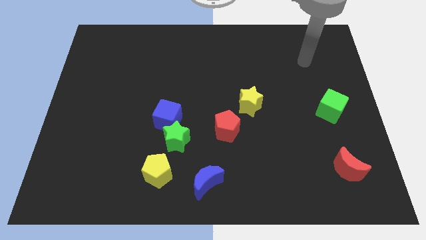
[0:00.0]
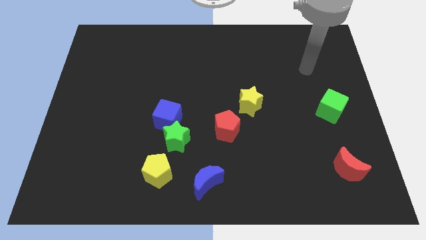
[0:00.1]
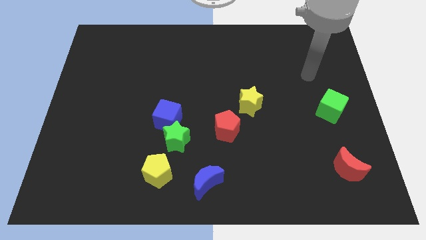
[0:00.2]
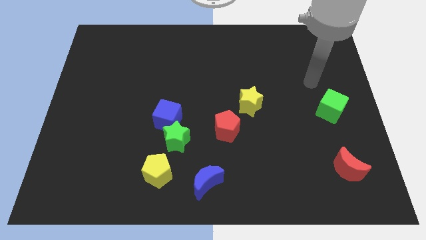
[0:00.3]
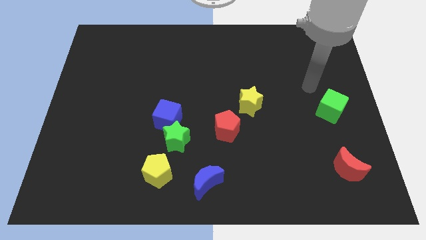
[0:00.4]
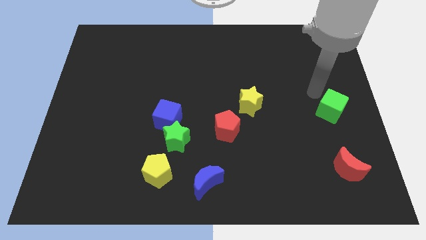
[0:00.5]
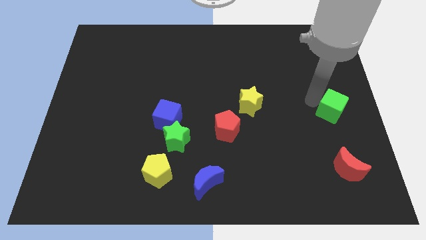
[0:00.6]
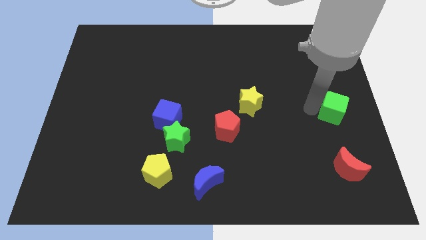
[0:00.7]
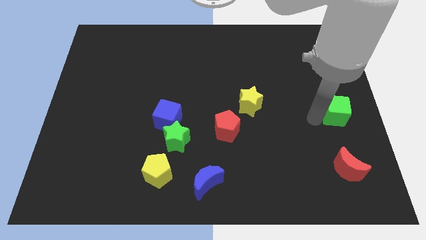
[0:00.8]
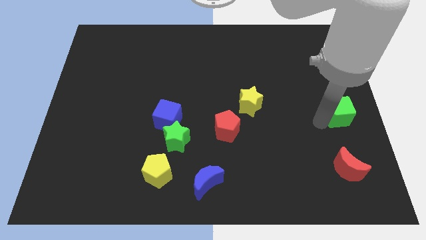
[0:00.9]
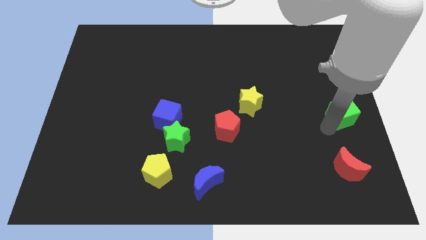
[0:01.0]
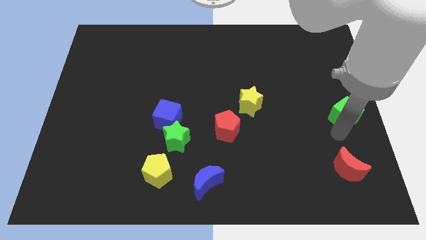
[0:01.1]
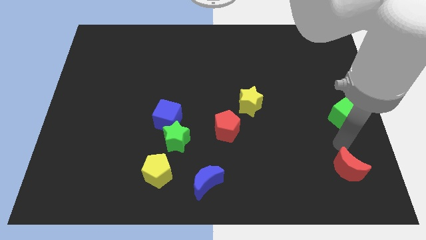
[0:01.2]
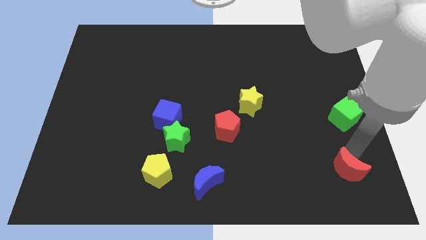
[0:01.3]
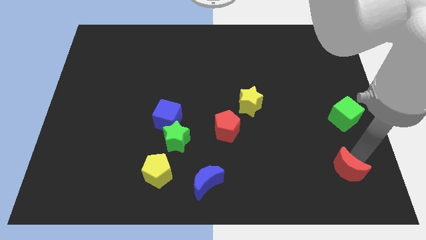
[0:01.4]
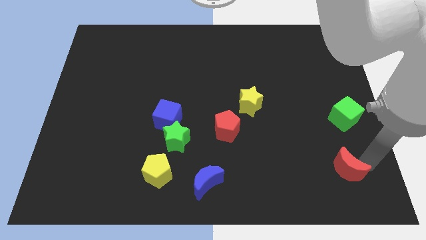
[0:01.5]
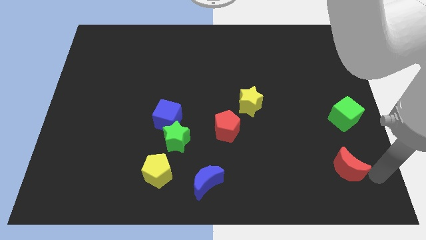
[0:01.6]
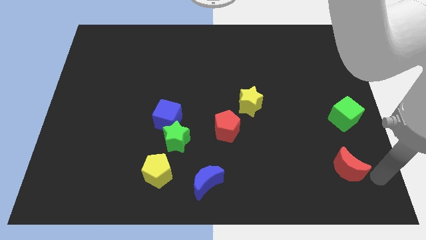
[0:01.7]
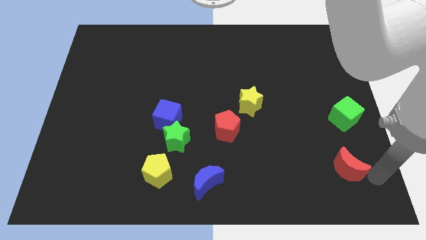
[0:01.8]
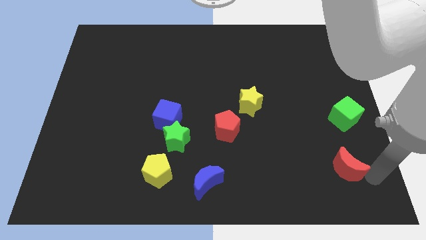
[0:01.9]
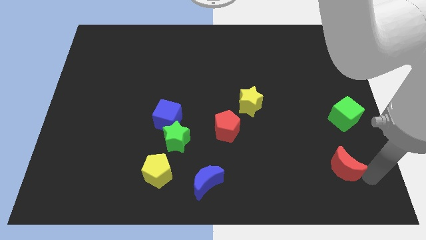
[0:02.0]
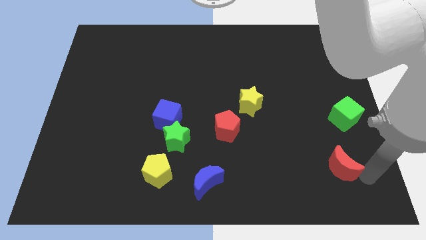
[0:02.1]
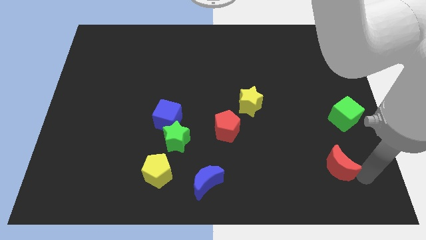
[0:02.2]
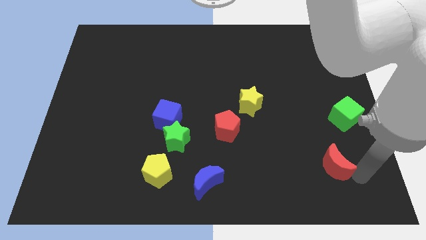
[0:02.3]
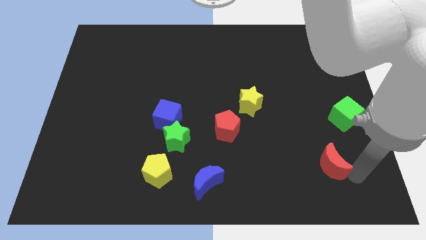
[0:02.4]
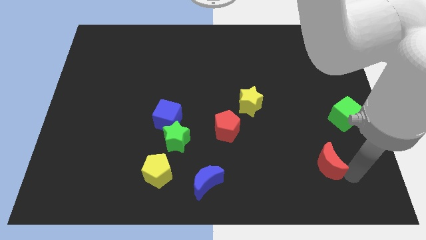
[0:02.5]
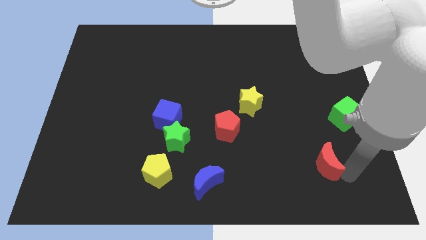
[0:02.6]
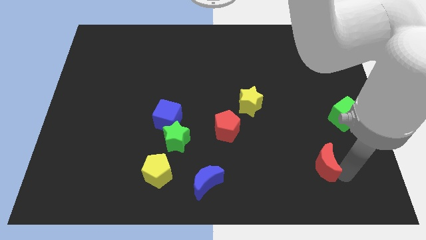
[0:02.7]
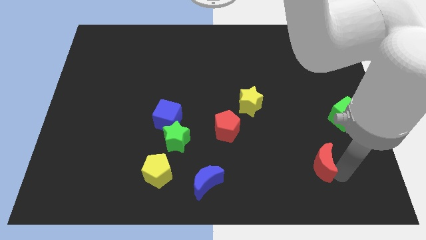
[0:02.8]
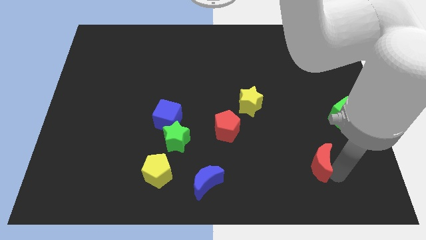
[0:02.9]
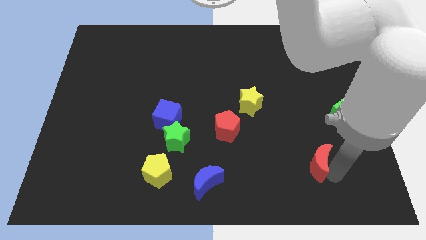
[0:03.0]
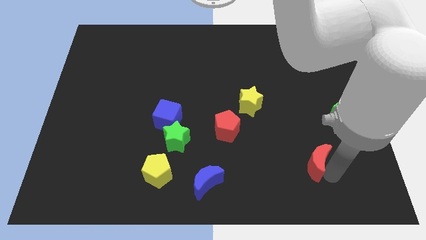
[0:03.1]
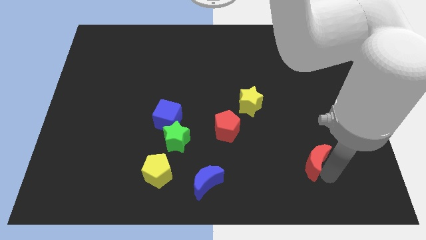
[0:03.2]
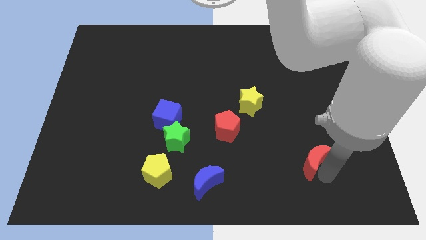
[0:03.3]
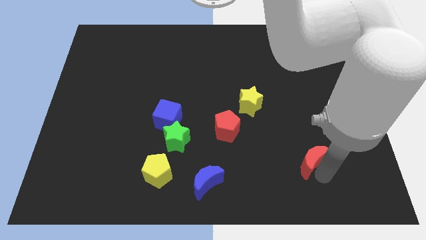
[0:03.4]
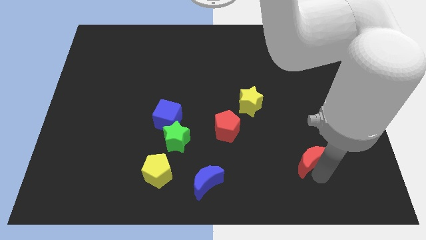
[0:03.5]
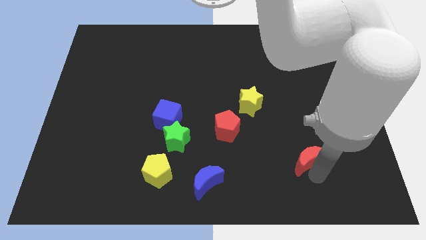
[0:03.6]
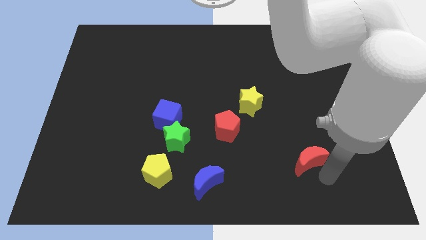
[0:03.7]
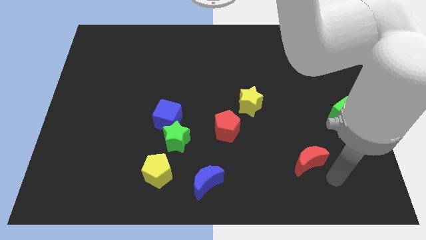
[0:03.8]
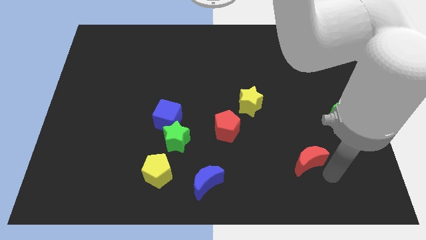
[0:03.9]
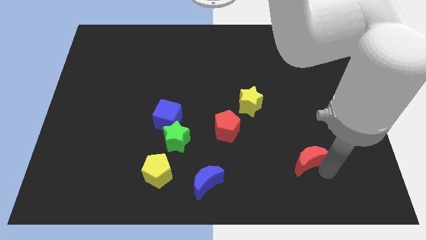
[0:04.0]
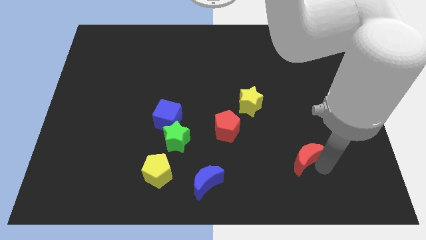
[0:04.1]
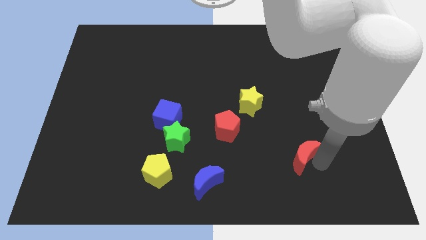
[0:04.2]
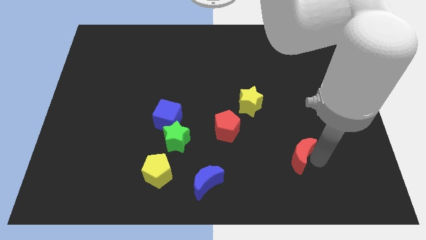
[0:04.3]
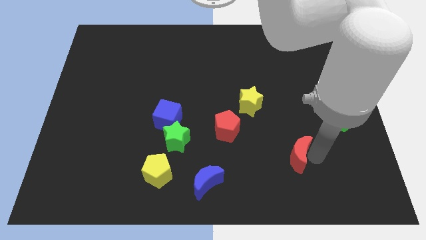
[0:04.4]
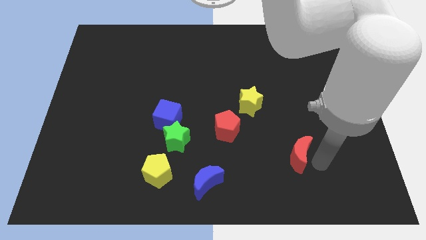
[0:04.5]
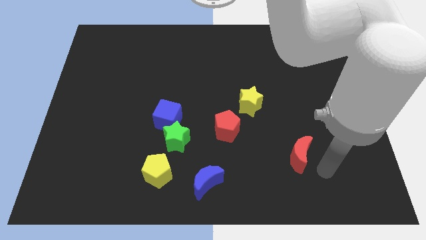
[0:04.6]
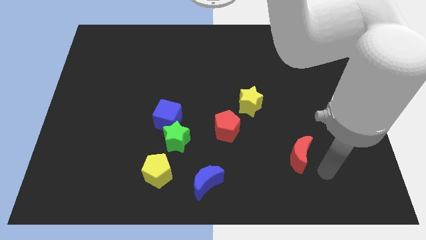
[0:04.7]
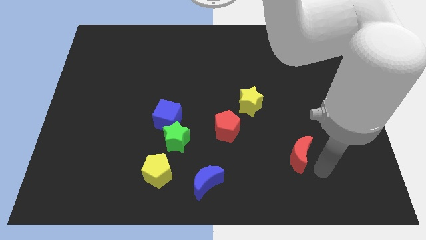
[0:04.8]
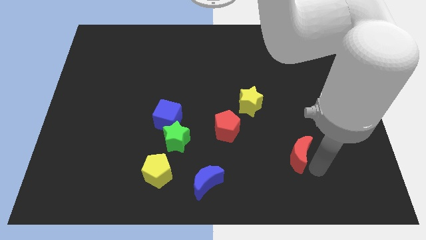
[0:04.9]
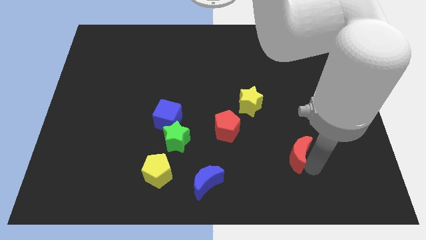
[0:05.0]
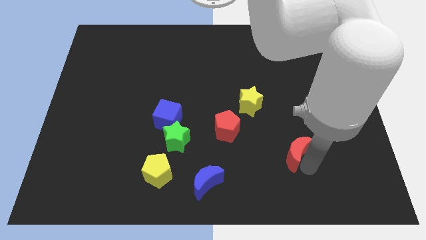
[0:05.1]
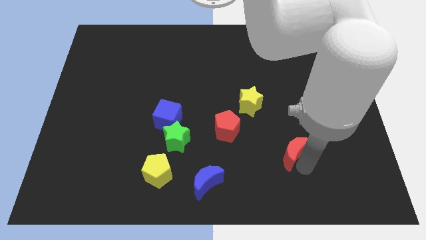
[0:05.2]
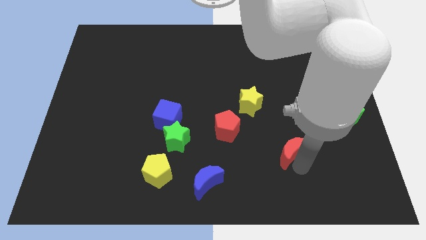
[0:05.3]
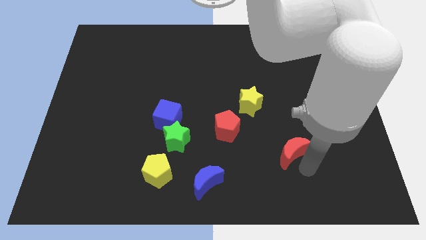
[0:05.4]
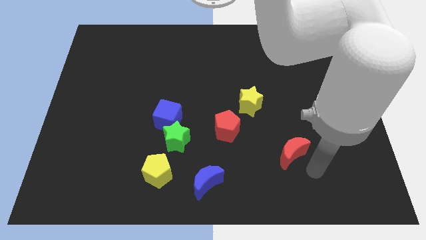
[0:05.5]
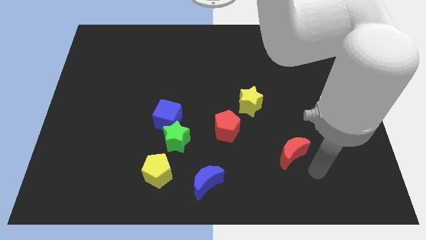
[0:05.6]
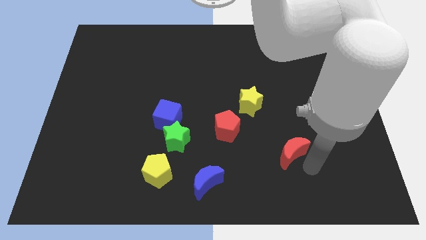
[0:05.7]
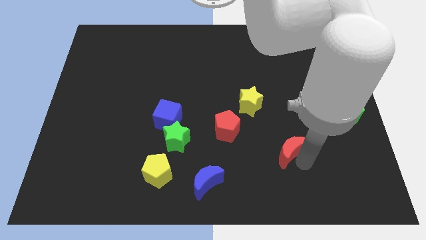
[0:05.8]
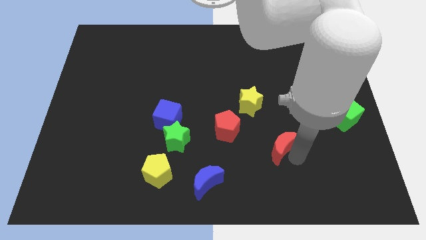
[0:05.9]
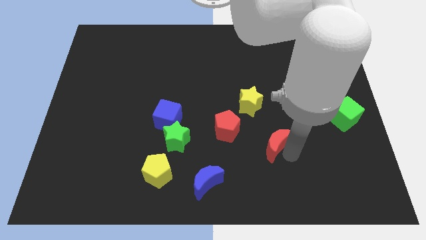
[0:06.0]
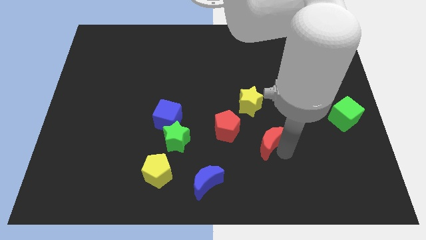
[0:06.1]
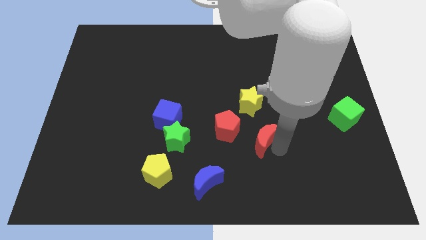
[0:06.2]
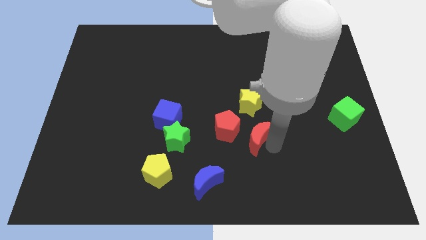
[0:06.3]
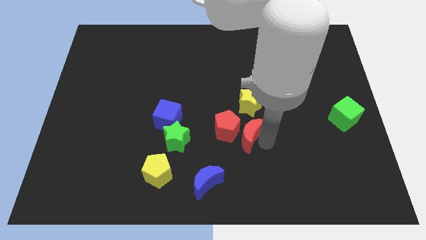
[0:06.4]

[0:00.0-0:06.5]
slide the red moon next to the red pentagon
